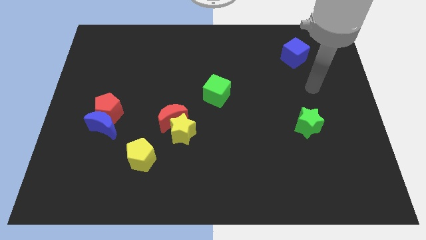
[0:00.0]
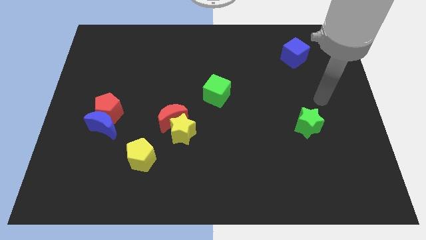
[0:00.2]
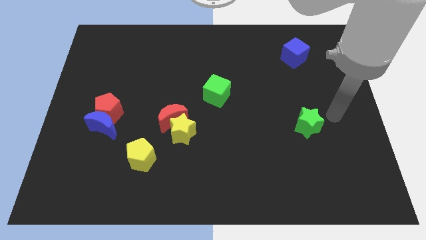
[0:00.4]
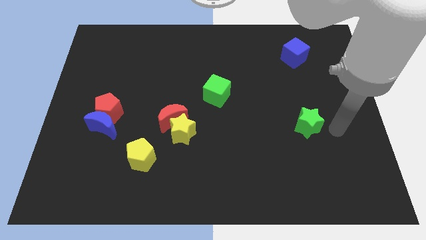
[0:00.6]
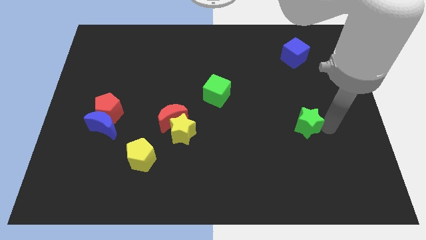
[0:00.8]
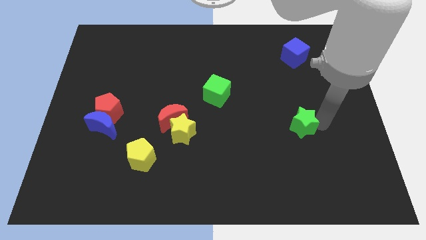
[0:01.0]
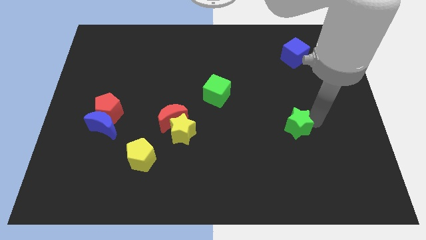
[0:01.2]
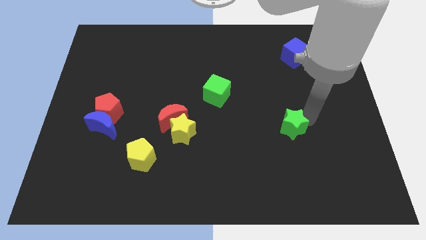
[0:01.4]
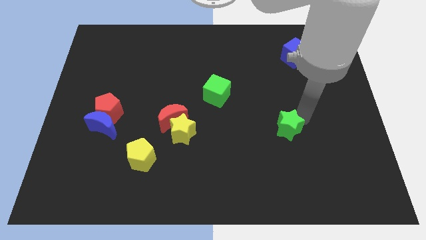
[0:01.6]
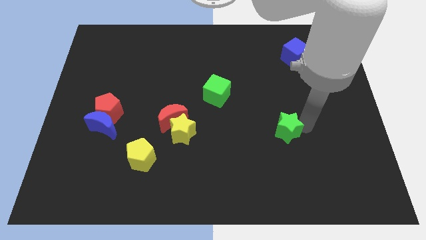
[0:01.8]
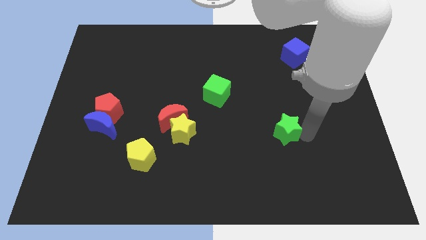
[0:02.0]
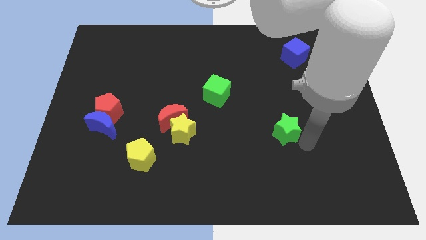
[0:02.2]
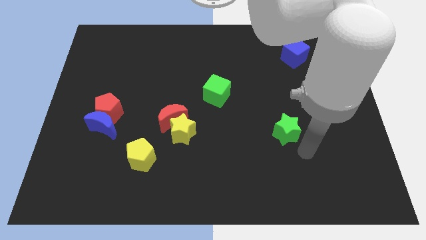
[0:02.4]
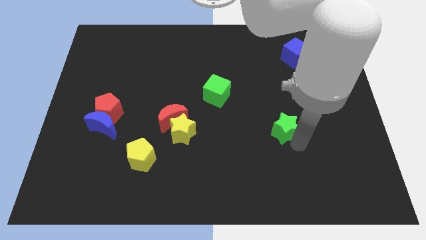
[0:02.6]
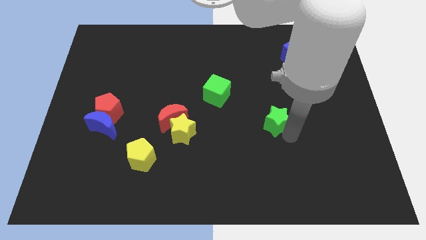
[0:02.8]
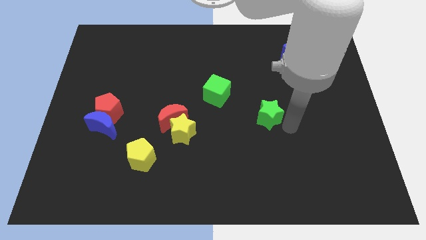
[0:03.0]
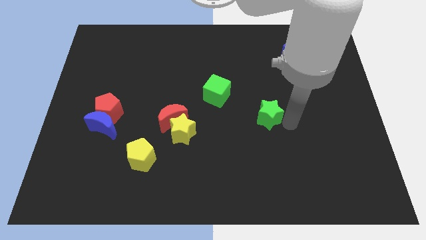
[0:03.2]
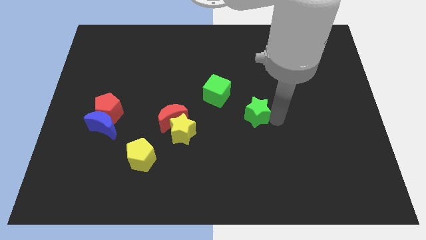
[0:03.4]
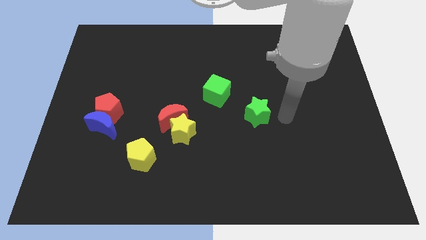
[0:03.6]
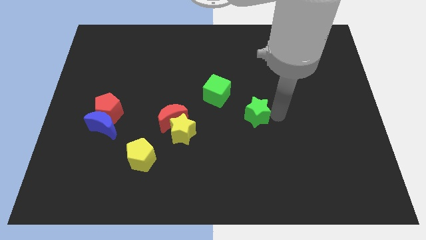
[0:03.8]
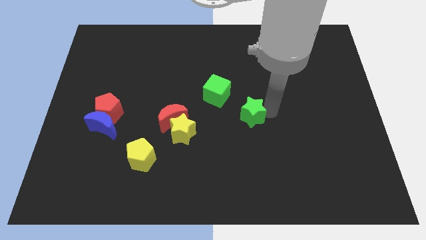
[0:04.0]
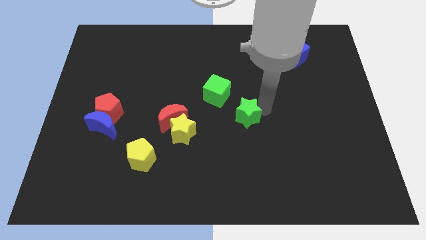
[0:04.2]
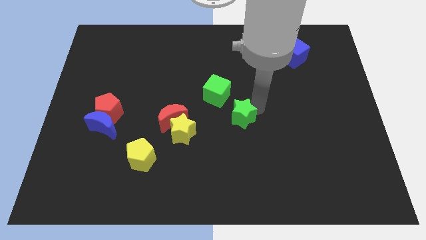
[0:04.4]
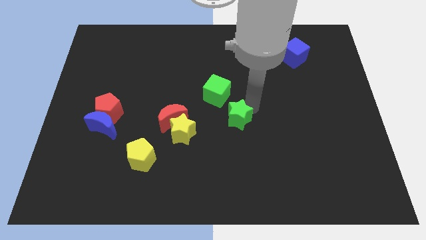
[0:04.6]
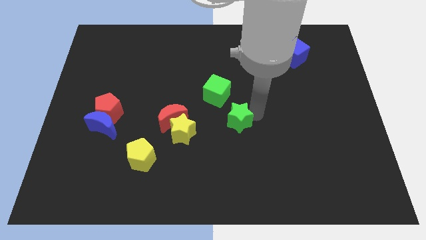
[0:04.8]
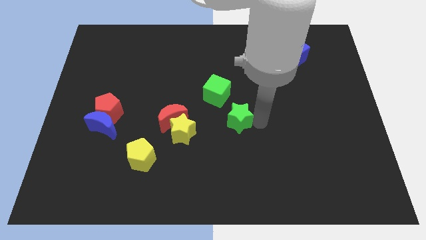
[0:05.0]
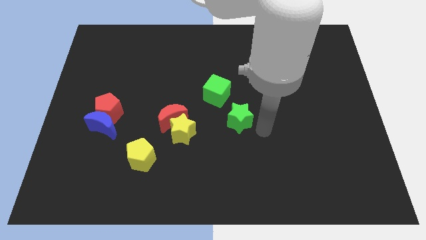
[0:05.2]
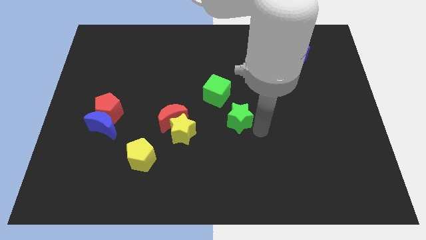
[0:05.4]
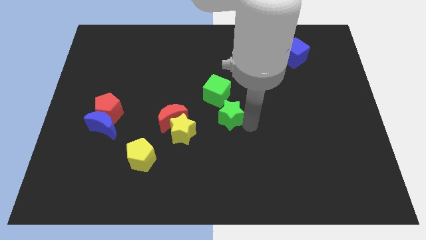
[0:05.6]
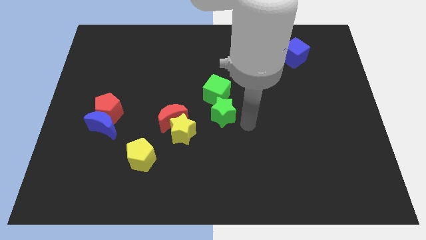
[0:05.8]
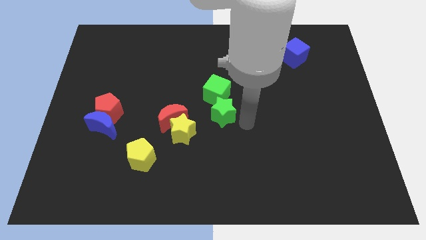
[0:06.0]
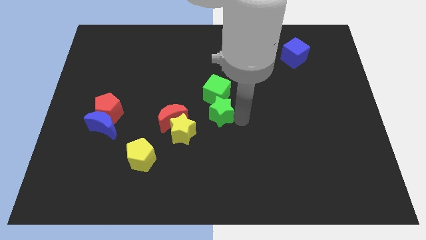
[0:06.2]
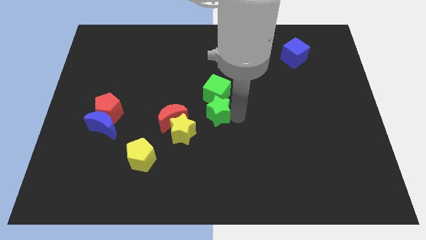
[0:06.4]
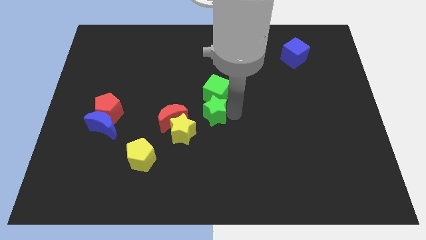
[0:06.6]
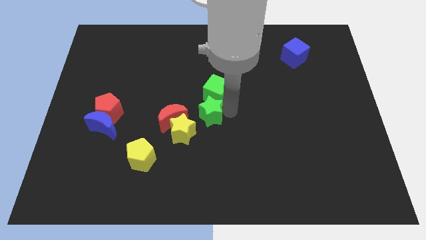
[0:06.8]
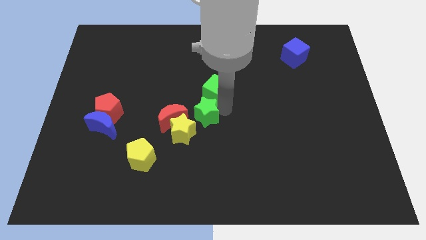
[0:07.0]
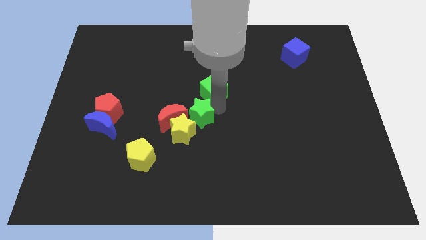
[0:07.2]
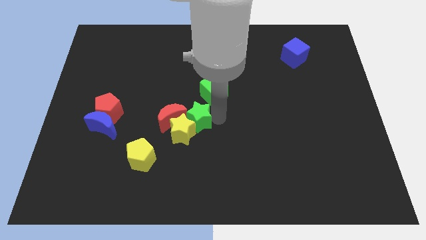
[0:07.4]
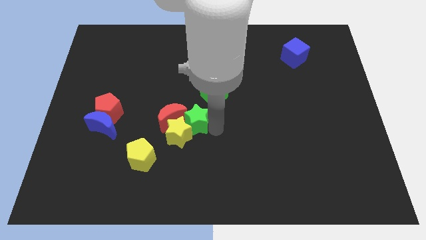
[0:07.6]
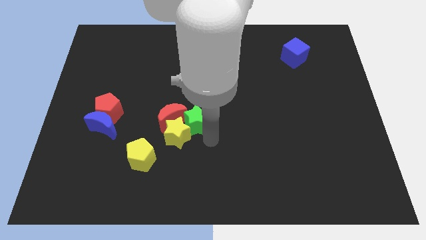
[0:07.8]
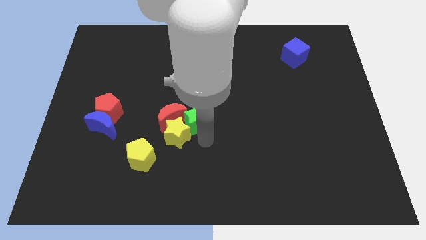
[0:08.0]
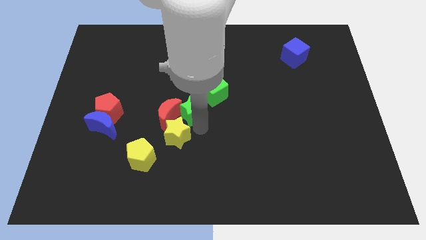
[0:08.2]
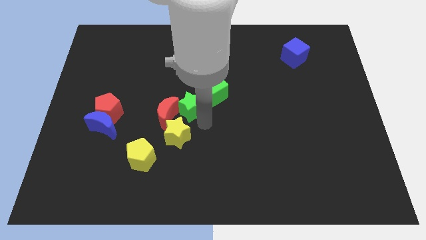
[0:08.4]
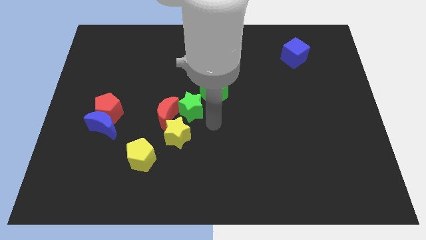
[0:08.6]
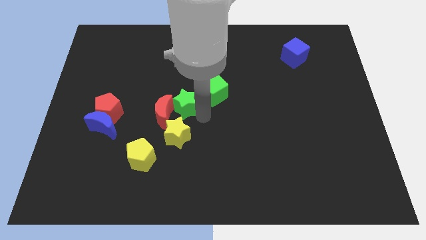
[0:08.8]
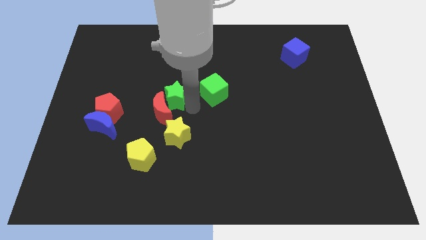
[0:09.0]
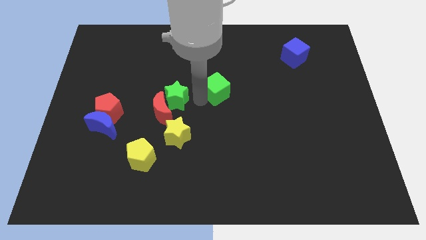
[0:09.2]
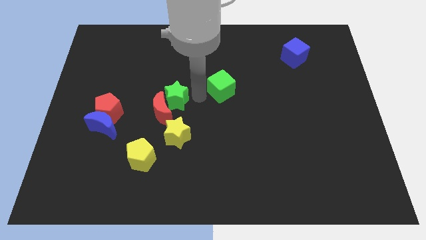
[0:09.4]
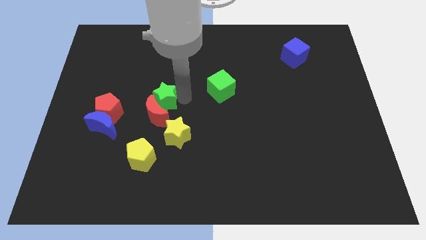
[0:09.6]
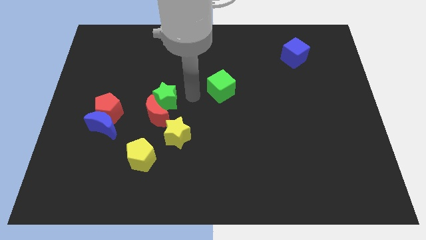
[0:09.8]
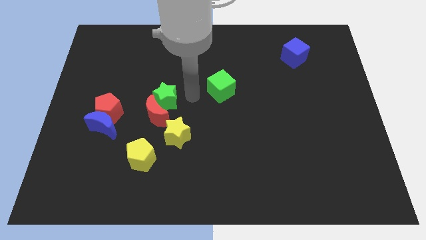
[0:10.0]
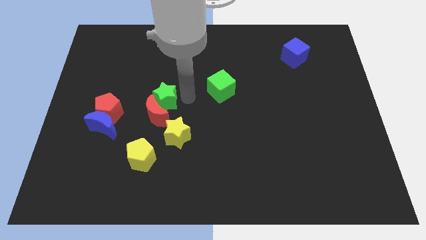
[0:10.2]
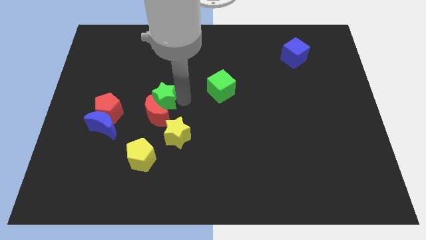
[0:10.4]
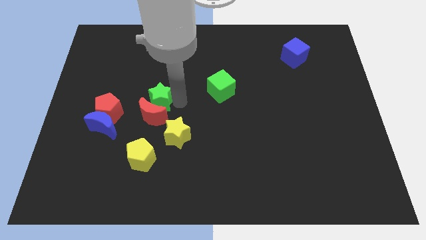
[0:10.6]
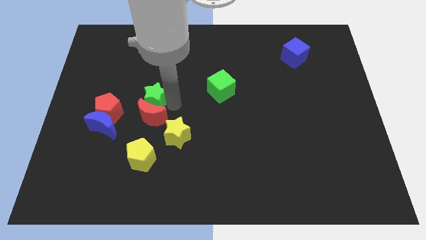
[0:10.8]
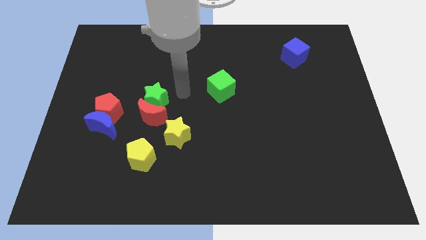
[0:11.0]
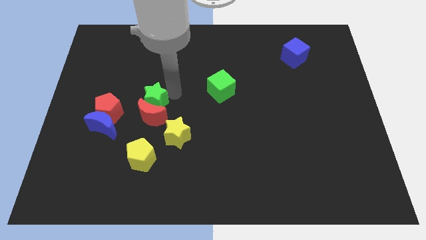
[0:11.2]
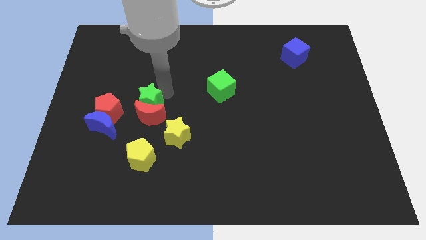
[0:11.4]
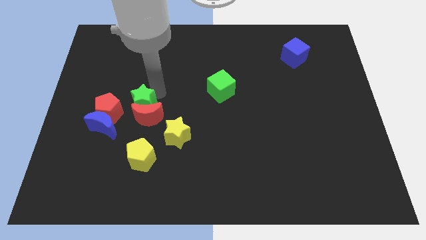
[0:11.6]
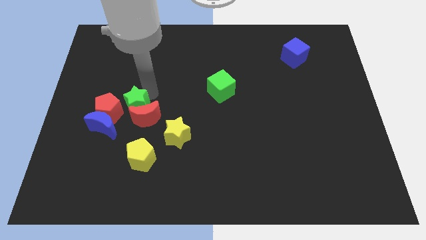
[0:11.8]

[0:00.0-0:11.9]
slide the green star just left of the red moon
